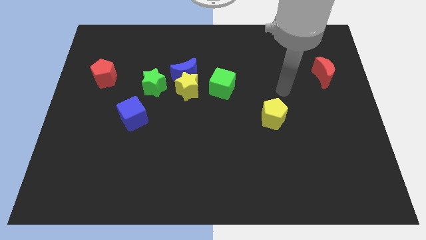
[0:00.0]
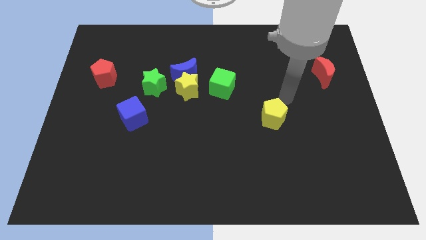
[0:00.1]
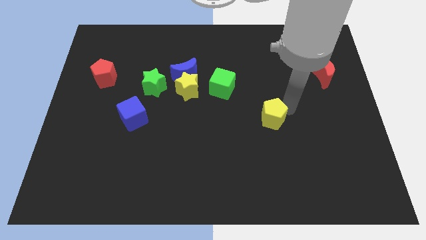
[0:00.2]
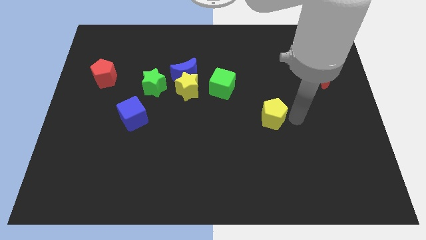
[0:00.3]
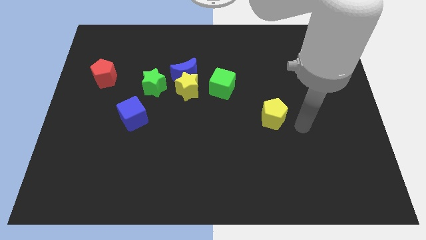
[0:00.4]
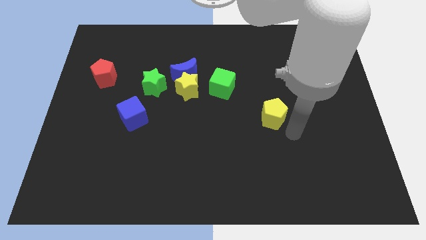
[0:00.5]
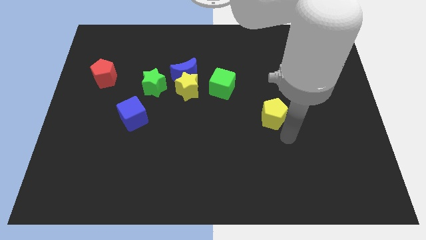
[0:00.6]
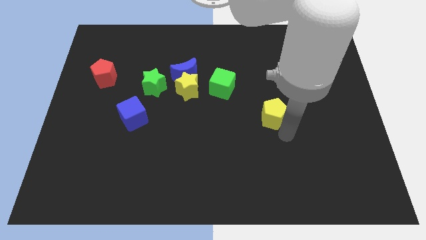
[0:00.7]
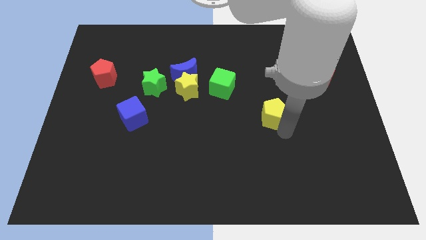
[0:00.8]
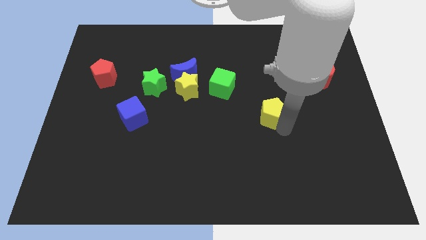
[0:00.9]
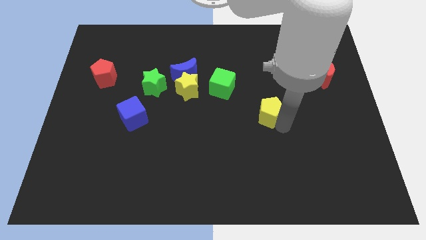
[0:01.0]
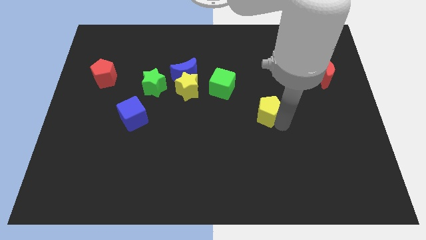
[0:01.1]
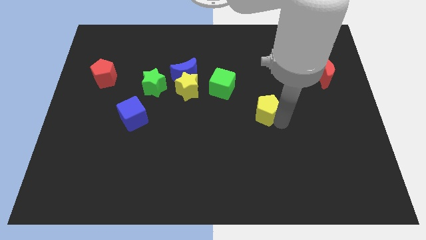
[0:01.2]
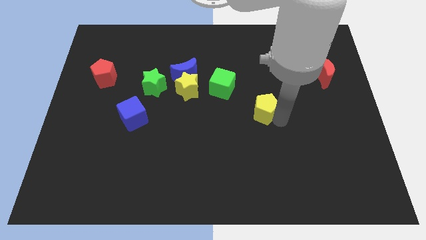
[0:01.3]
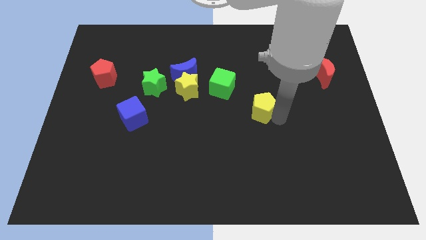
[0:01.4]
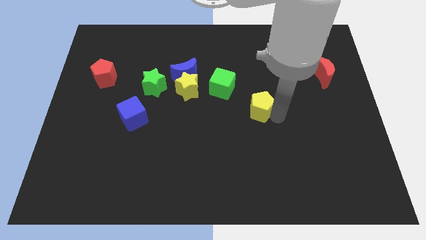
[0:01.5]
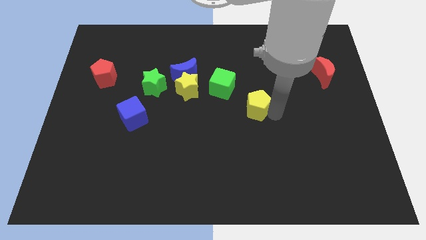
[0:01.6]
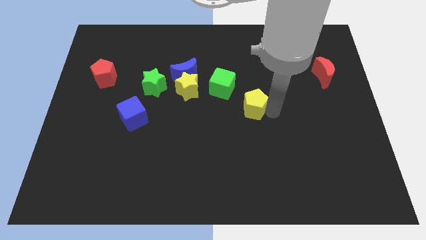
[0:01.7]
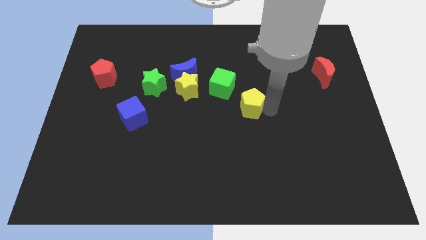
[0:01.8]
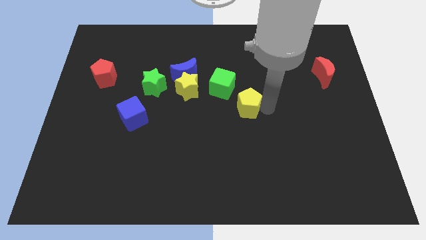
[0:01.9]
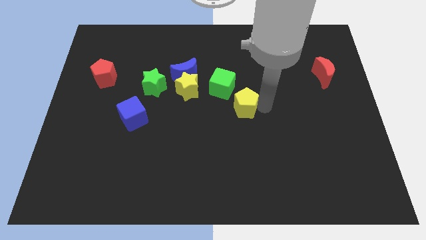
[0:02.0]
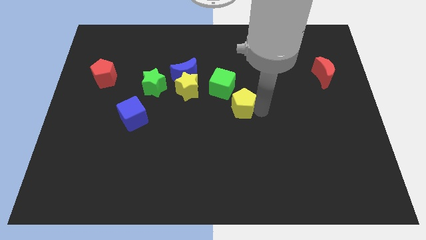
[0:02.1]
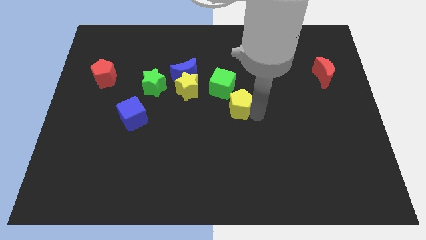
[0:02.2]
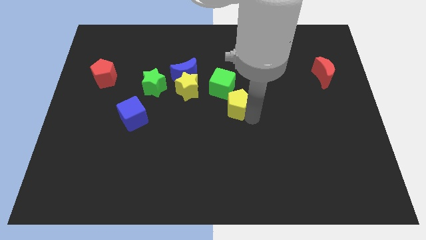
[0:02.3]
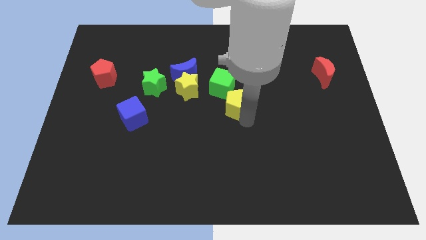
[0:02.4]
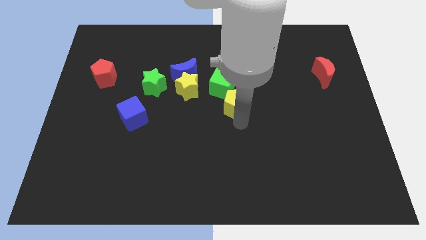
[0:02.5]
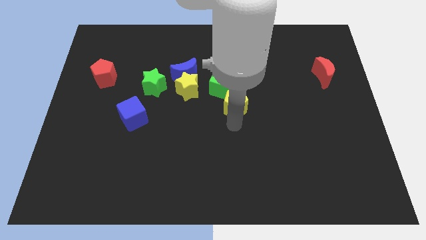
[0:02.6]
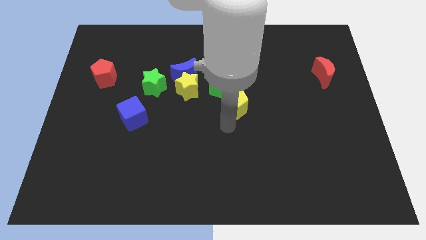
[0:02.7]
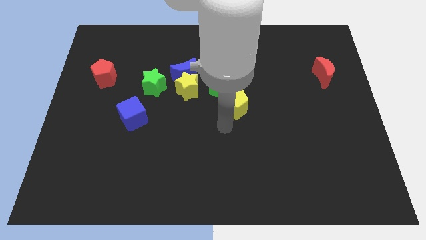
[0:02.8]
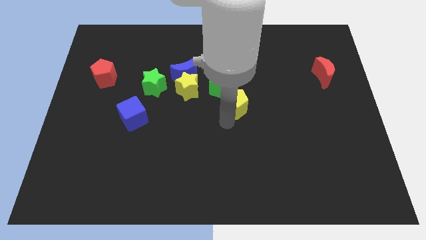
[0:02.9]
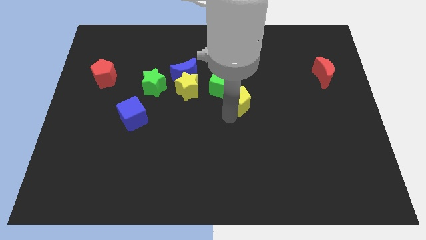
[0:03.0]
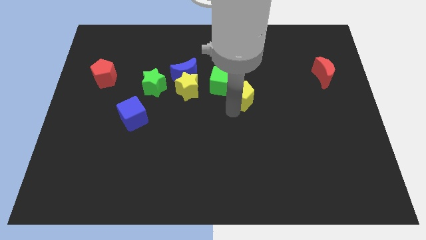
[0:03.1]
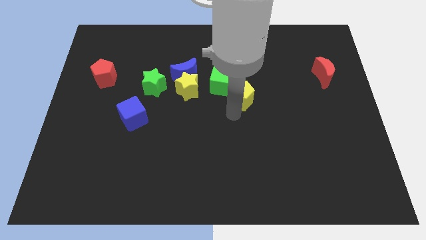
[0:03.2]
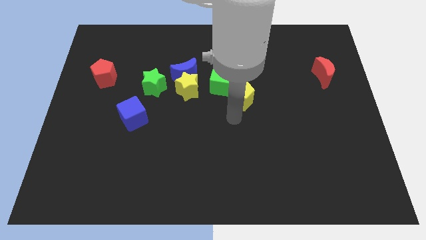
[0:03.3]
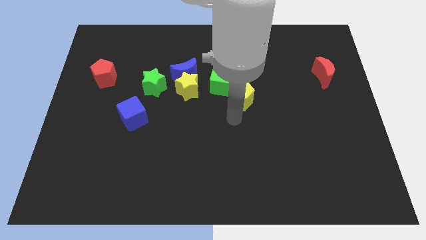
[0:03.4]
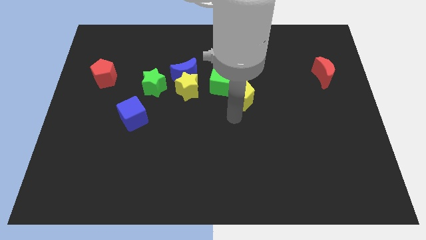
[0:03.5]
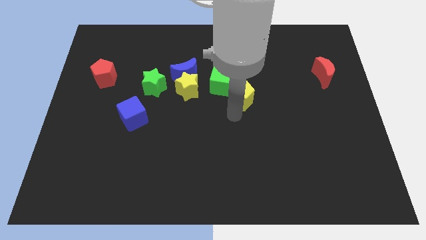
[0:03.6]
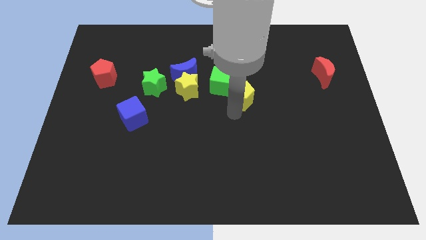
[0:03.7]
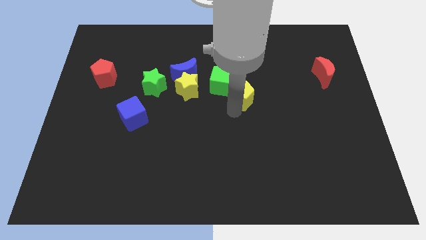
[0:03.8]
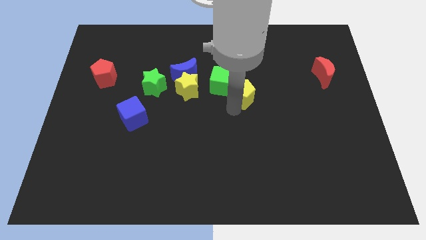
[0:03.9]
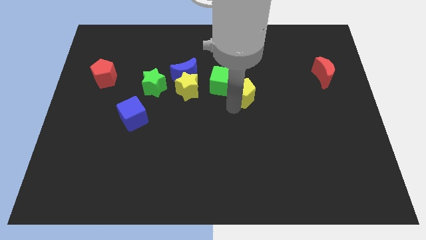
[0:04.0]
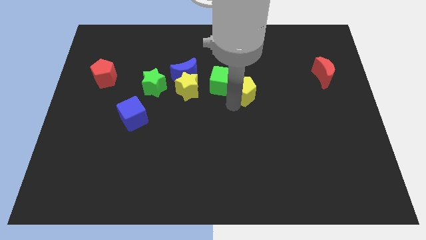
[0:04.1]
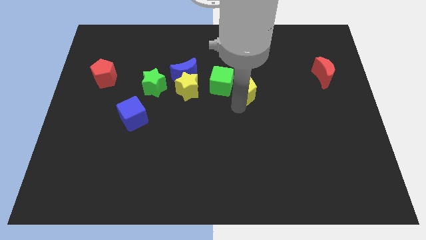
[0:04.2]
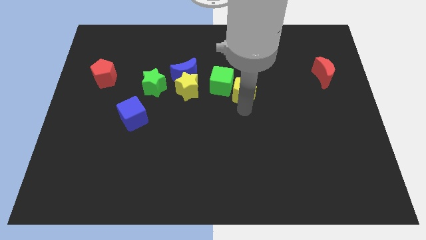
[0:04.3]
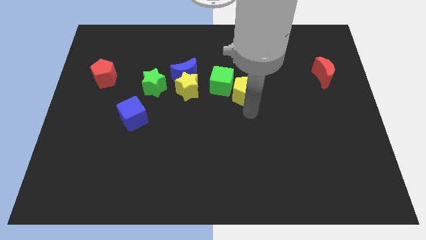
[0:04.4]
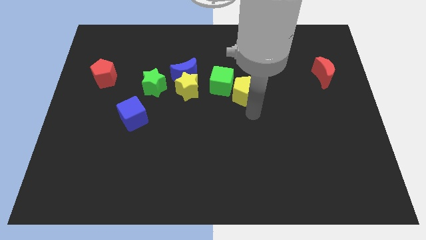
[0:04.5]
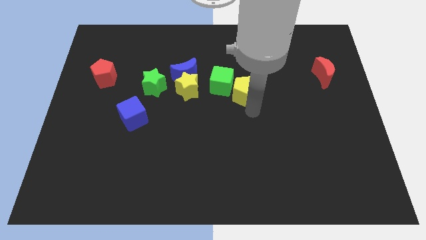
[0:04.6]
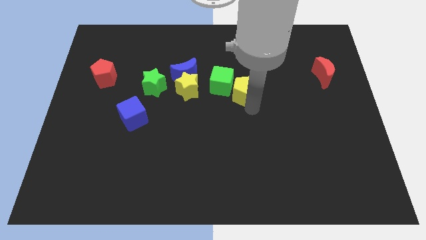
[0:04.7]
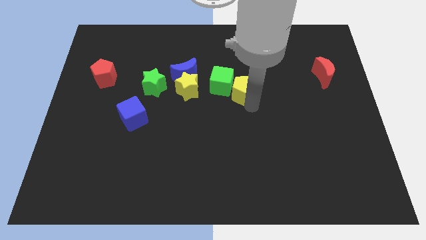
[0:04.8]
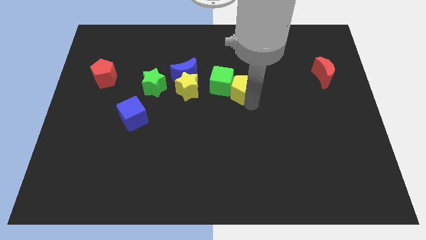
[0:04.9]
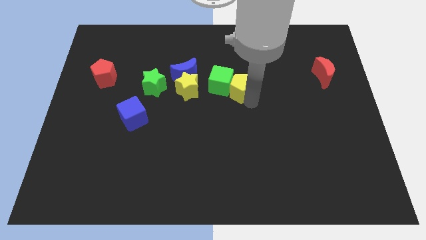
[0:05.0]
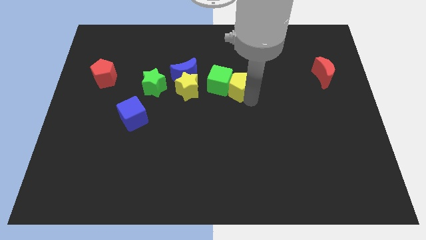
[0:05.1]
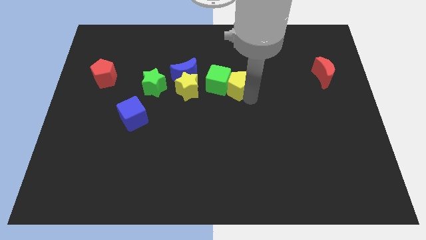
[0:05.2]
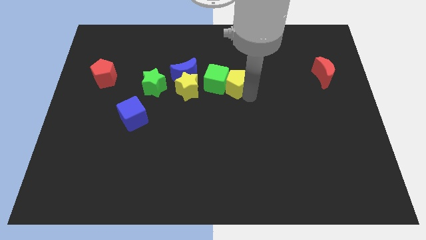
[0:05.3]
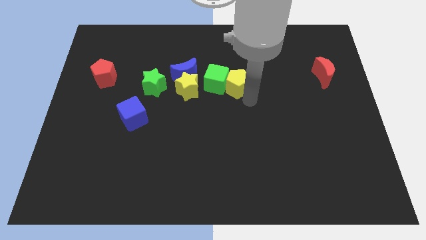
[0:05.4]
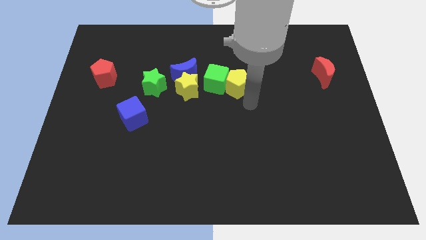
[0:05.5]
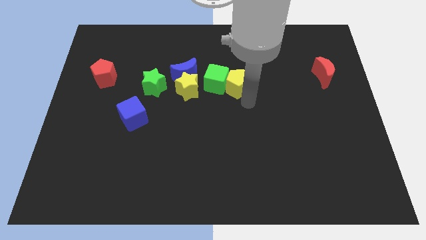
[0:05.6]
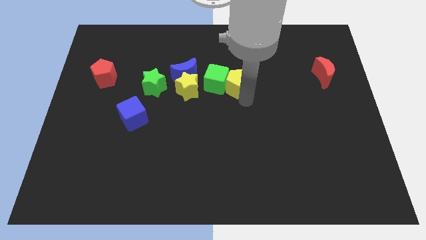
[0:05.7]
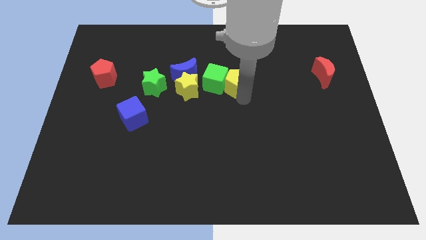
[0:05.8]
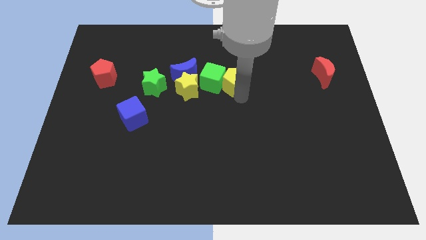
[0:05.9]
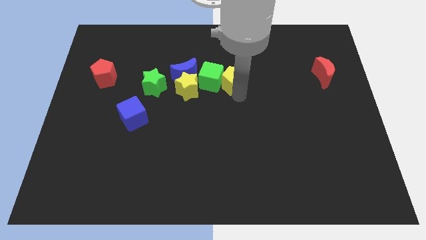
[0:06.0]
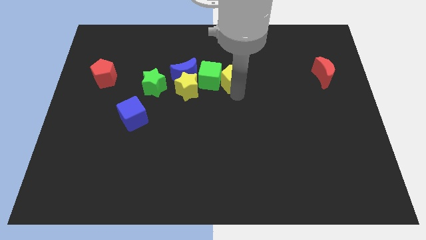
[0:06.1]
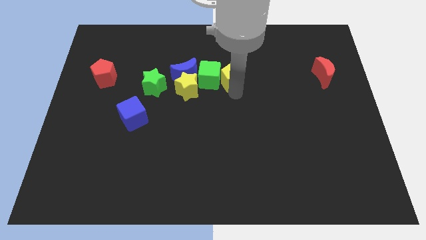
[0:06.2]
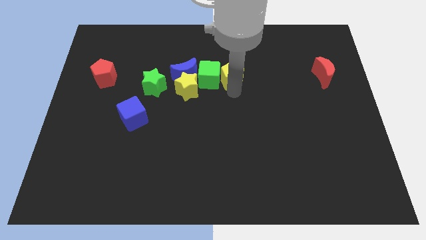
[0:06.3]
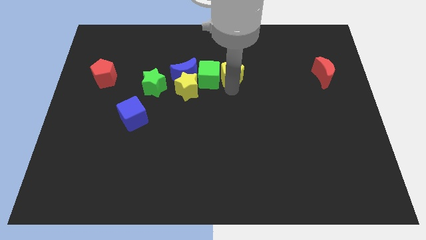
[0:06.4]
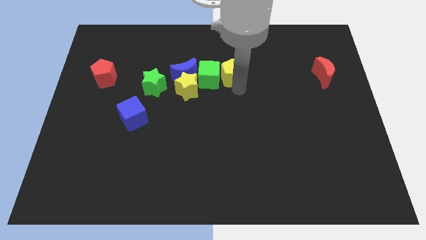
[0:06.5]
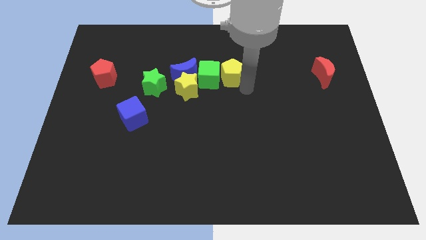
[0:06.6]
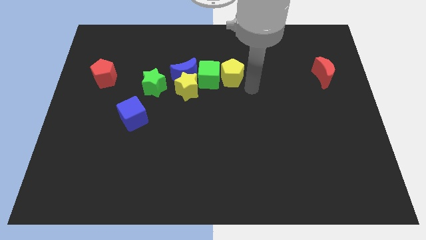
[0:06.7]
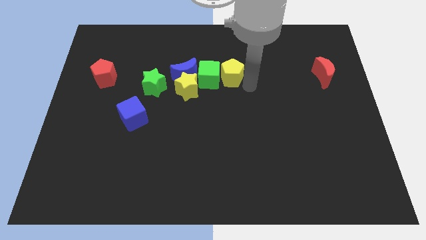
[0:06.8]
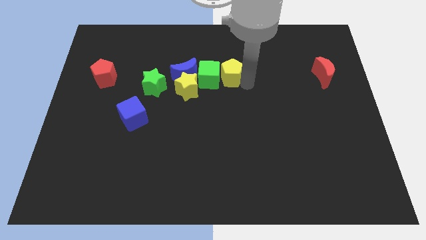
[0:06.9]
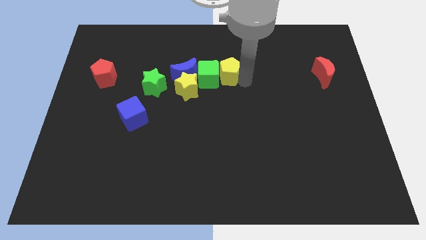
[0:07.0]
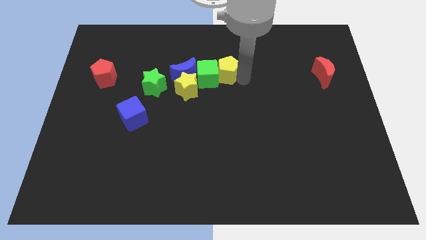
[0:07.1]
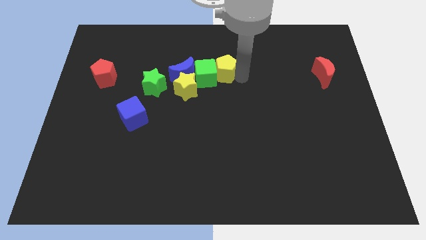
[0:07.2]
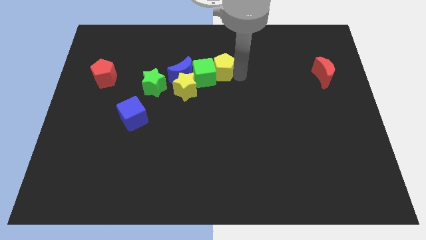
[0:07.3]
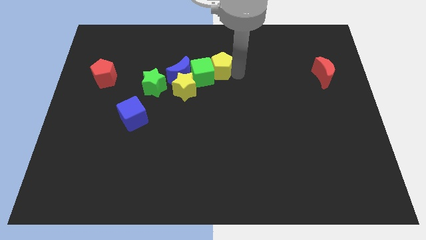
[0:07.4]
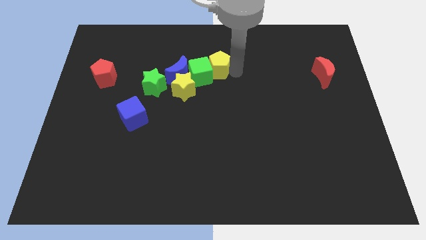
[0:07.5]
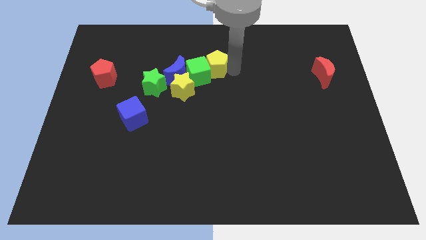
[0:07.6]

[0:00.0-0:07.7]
push the yellow pentagon to the top right of the blue moon
